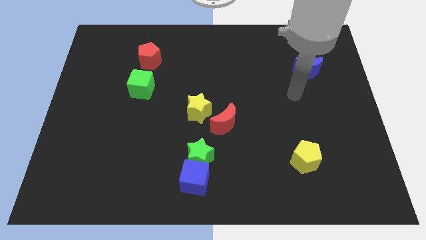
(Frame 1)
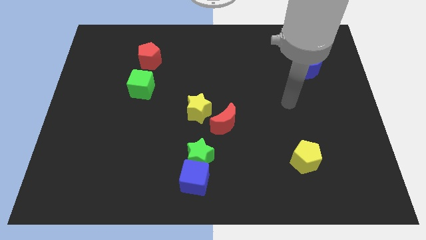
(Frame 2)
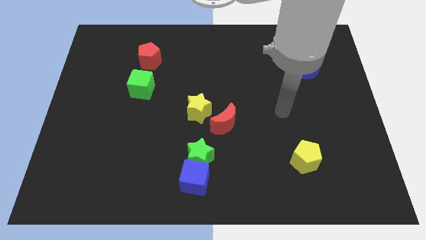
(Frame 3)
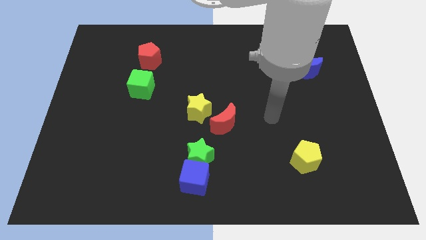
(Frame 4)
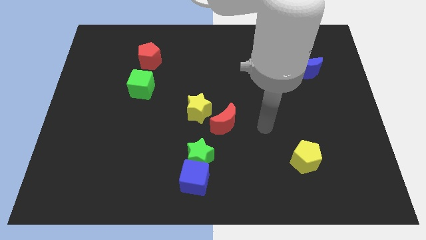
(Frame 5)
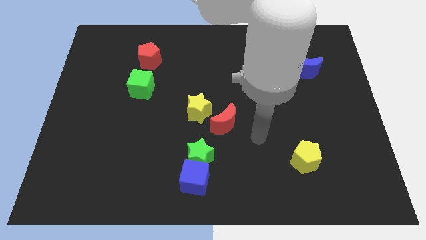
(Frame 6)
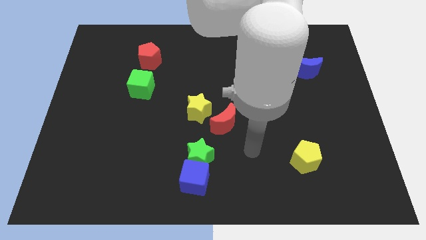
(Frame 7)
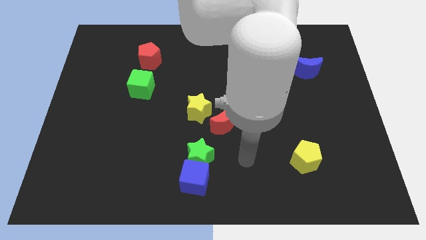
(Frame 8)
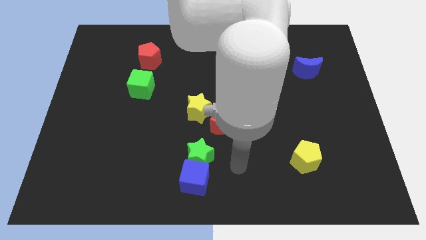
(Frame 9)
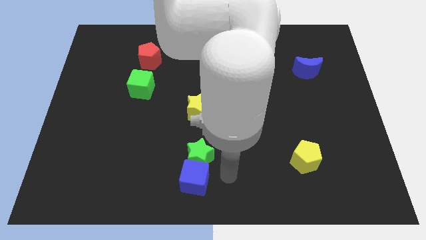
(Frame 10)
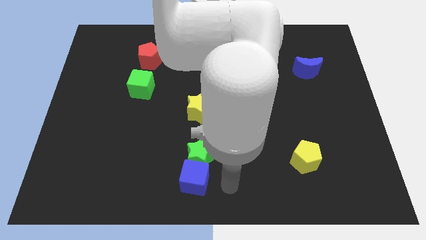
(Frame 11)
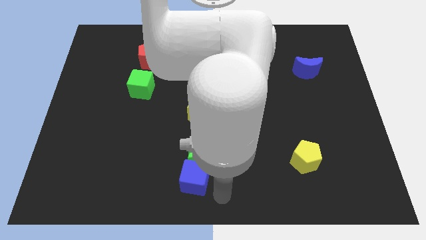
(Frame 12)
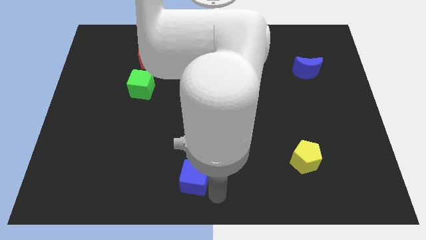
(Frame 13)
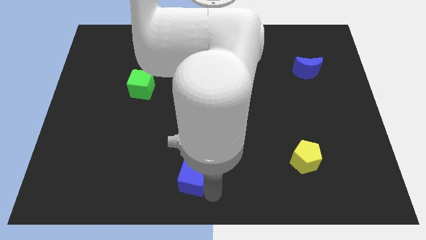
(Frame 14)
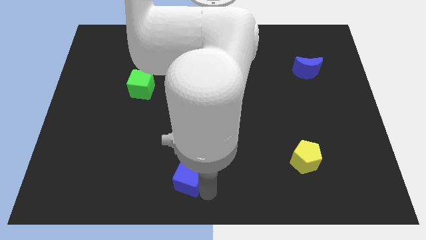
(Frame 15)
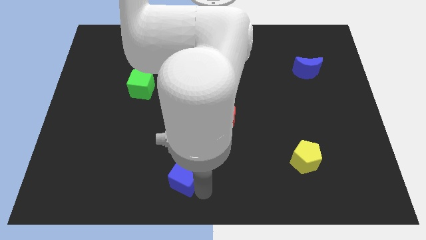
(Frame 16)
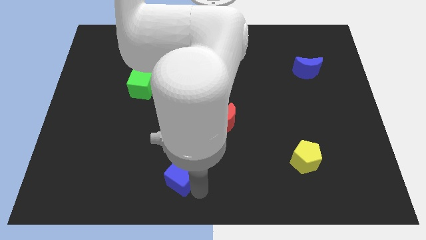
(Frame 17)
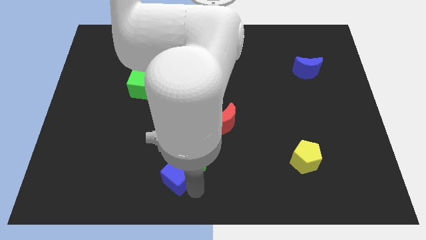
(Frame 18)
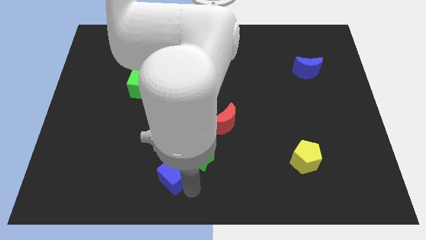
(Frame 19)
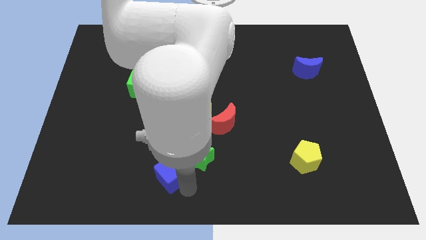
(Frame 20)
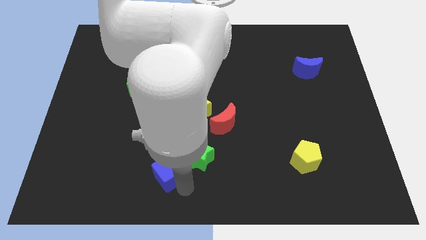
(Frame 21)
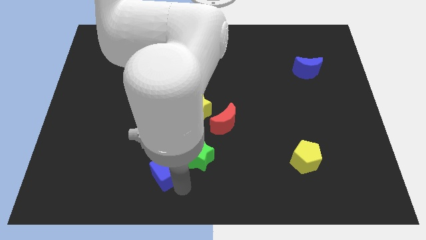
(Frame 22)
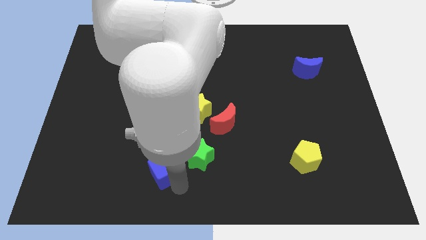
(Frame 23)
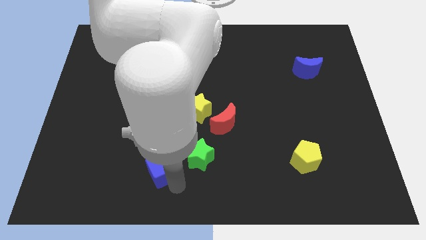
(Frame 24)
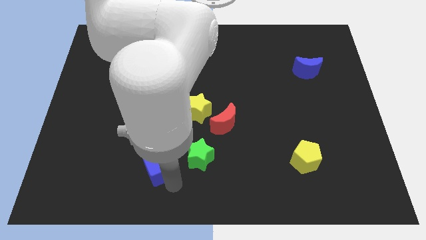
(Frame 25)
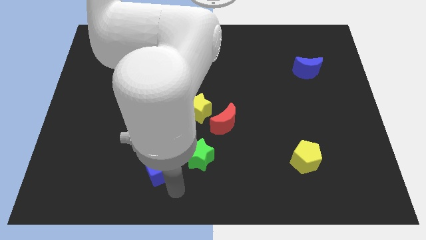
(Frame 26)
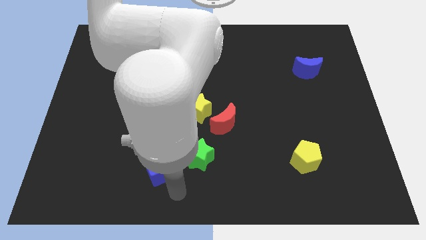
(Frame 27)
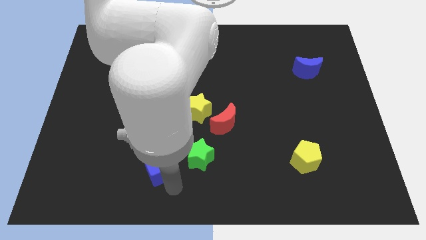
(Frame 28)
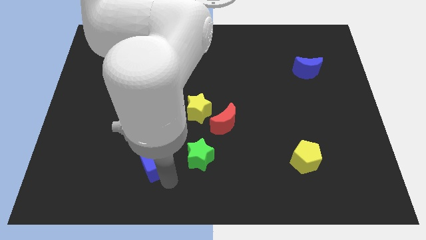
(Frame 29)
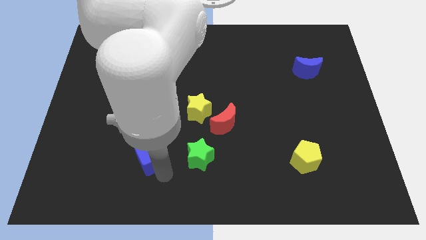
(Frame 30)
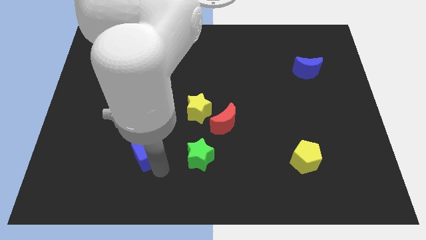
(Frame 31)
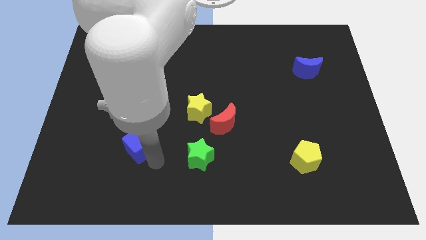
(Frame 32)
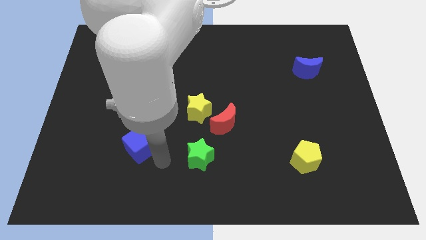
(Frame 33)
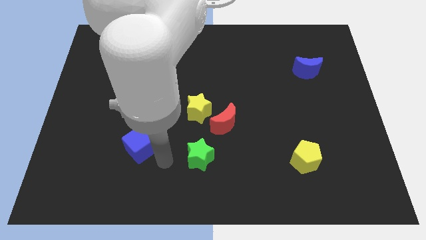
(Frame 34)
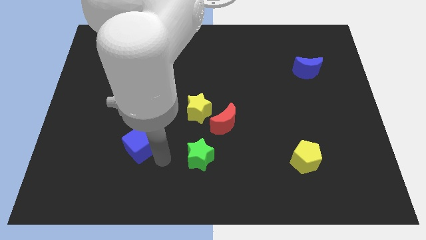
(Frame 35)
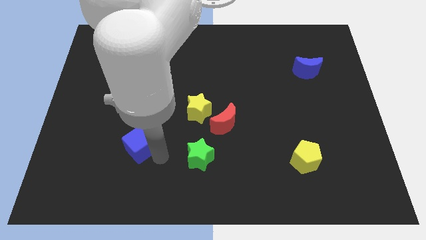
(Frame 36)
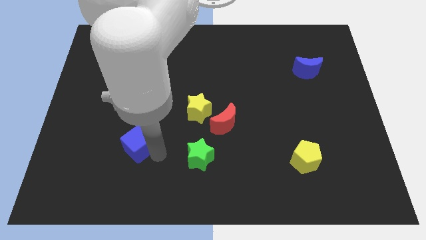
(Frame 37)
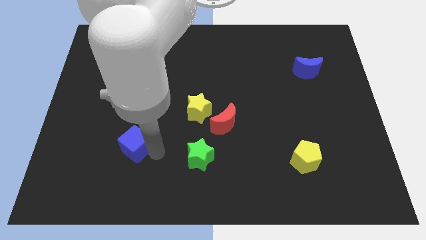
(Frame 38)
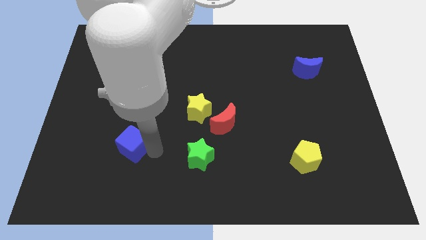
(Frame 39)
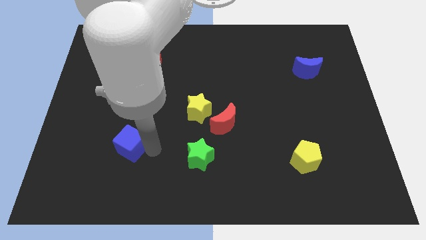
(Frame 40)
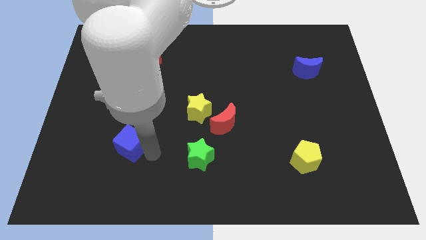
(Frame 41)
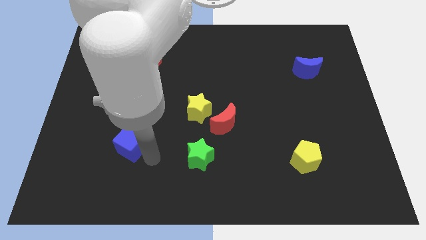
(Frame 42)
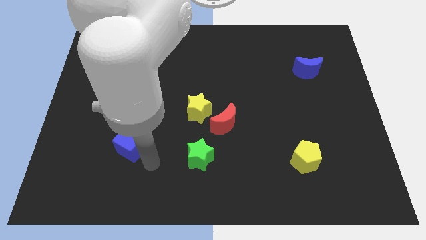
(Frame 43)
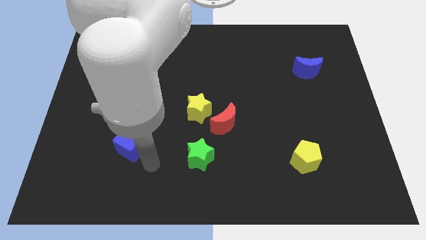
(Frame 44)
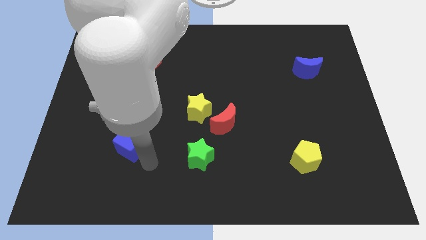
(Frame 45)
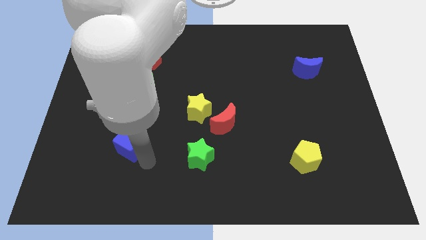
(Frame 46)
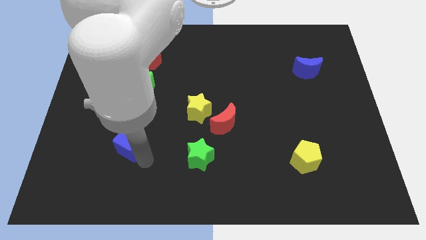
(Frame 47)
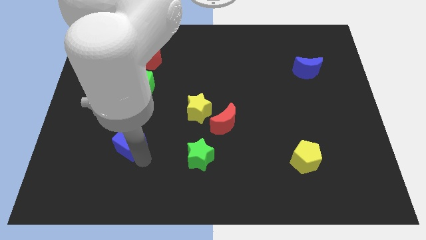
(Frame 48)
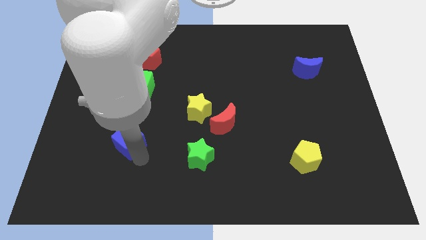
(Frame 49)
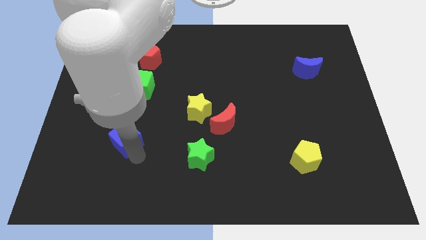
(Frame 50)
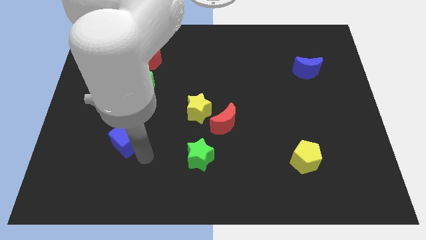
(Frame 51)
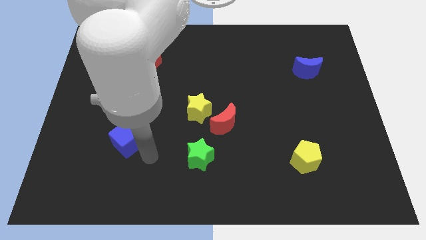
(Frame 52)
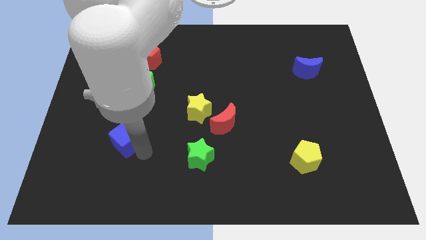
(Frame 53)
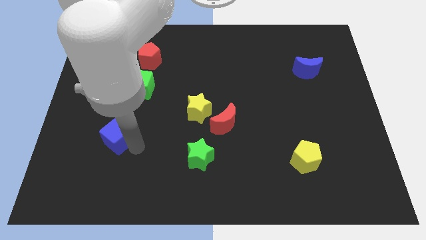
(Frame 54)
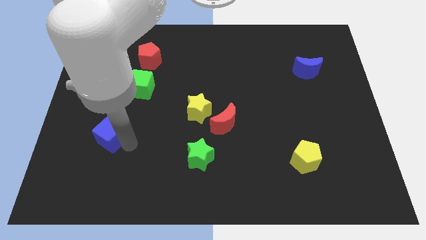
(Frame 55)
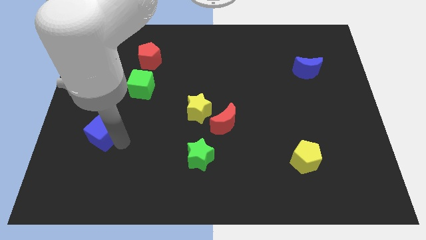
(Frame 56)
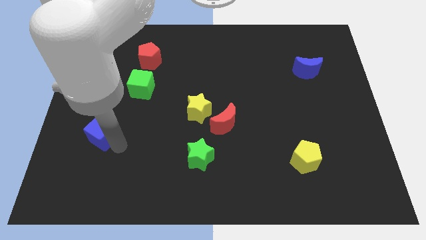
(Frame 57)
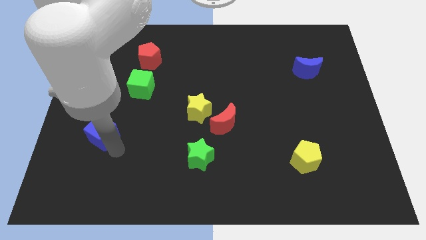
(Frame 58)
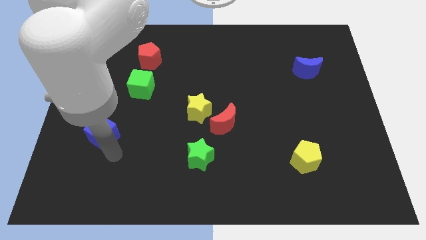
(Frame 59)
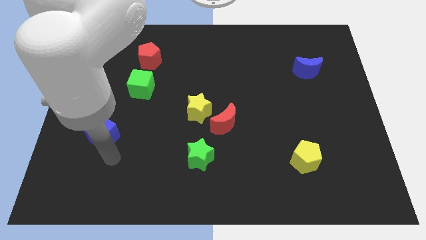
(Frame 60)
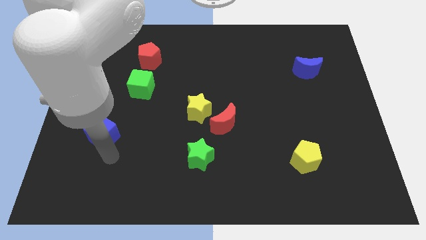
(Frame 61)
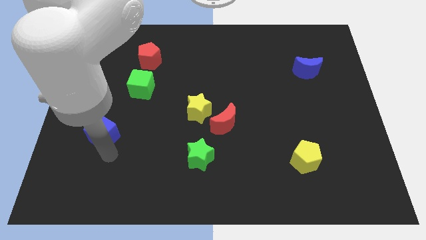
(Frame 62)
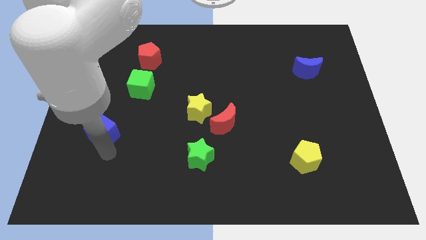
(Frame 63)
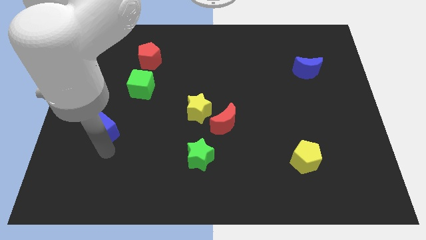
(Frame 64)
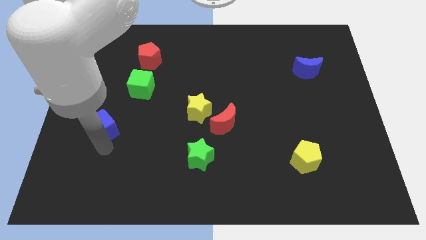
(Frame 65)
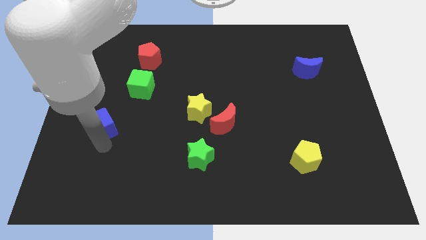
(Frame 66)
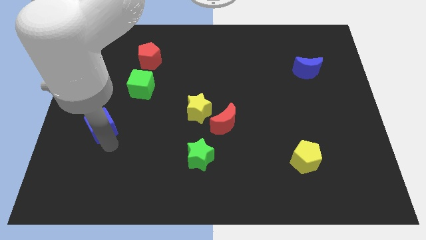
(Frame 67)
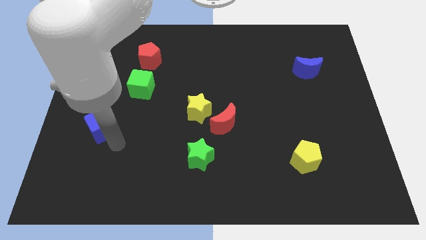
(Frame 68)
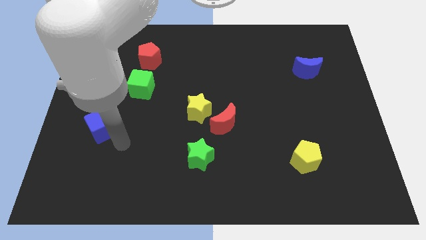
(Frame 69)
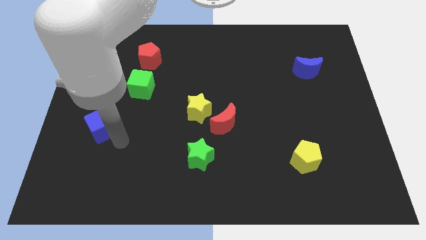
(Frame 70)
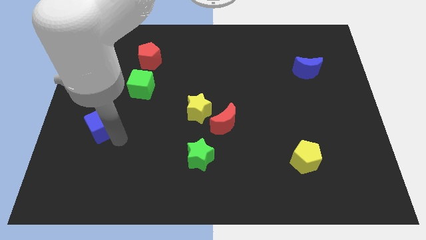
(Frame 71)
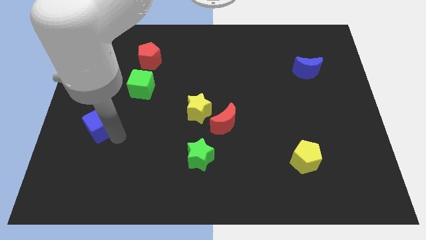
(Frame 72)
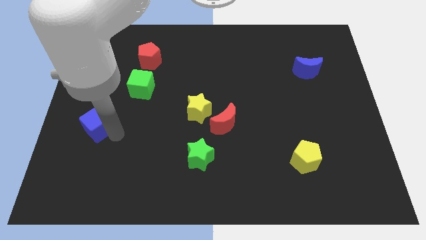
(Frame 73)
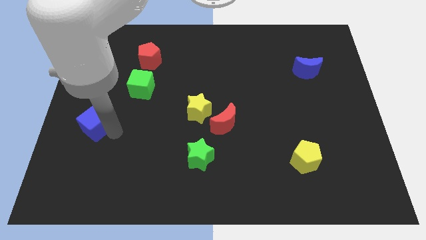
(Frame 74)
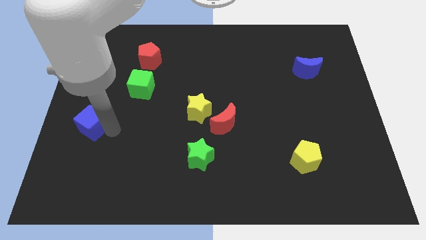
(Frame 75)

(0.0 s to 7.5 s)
move the blue cube to the left side of the board
